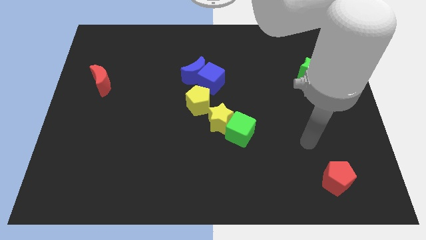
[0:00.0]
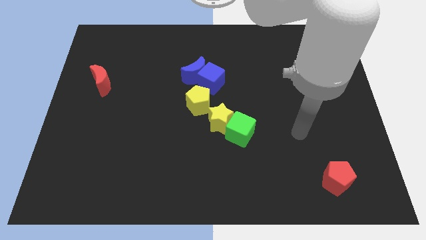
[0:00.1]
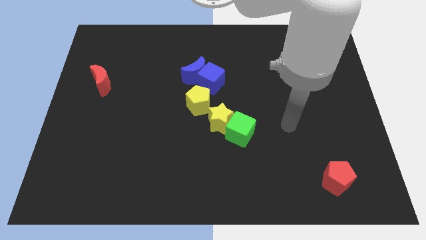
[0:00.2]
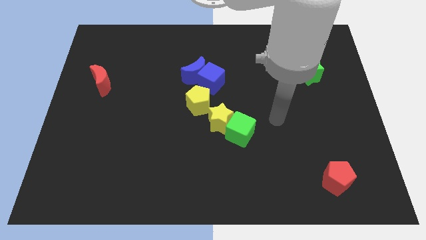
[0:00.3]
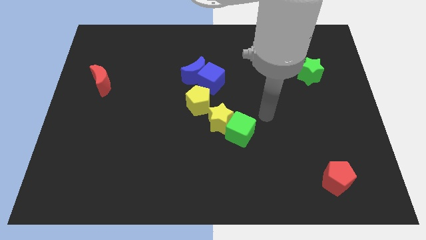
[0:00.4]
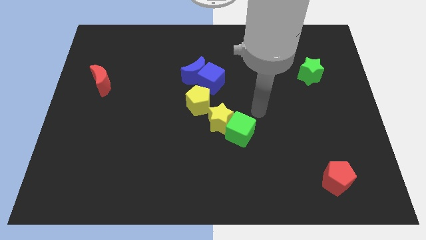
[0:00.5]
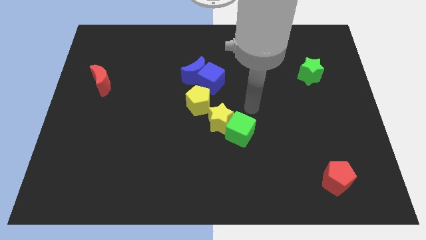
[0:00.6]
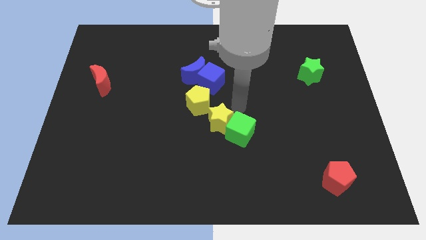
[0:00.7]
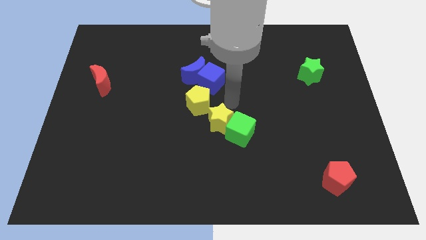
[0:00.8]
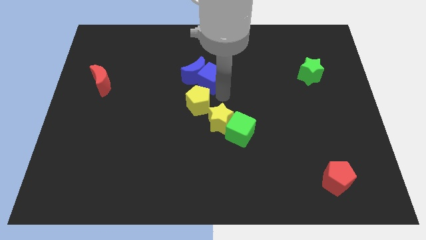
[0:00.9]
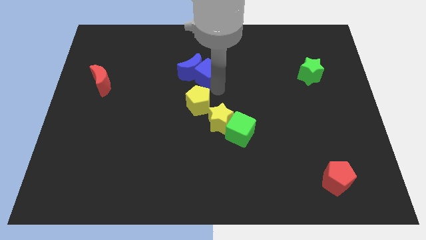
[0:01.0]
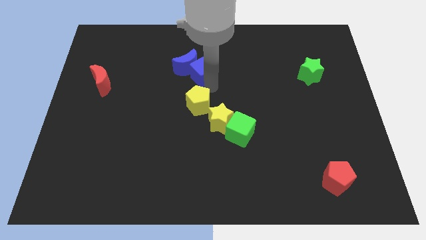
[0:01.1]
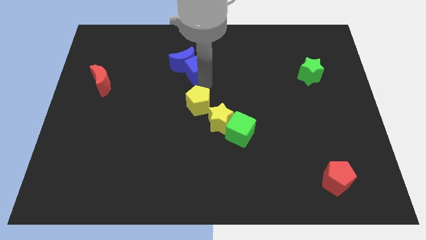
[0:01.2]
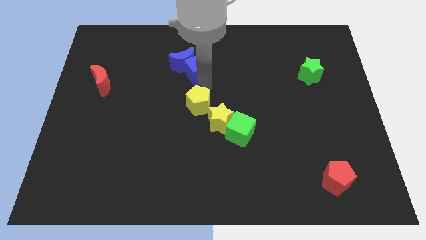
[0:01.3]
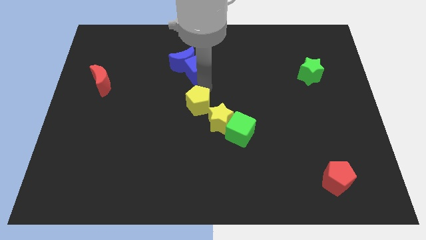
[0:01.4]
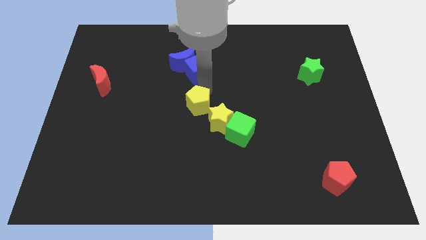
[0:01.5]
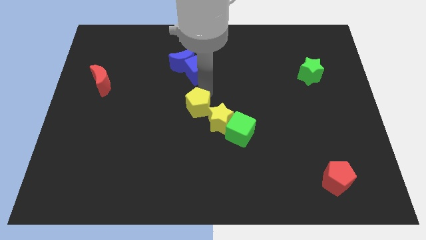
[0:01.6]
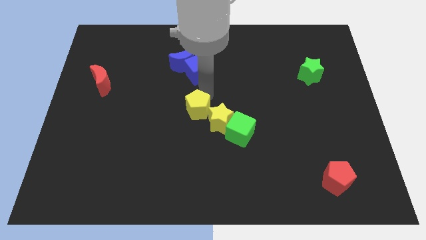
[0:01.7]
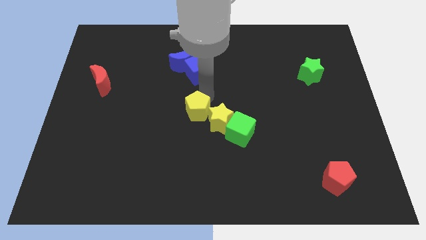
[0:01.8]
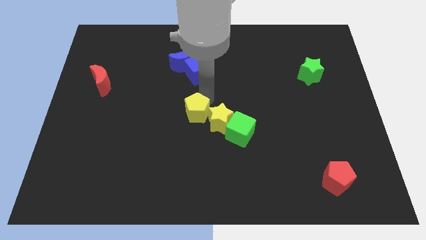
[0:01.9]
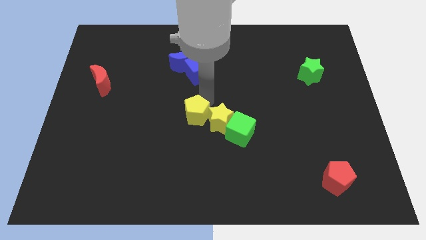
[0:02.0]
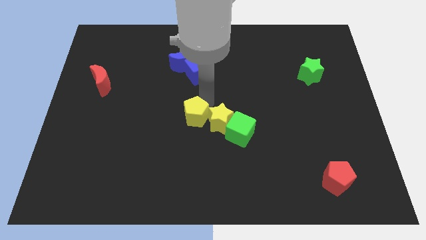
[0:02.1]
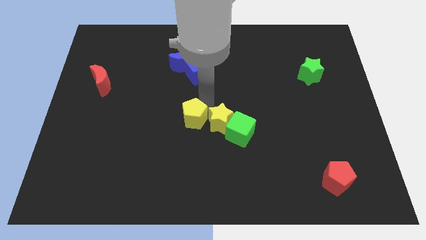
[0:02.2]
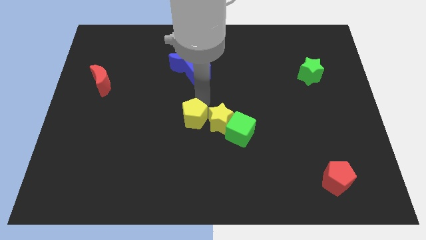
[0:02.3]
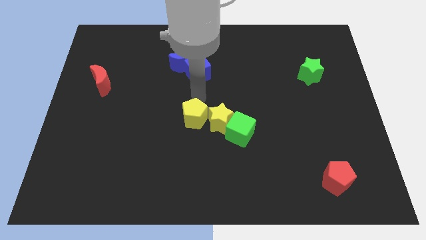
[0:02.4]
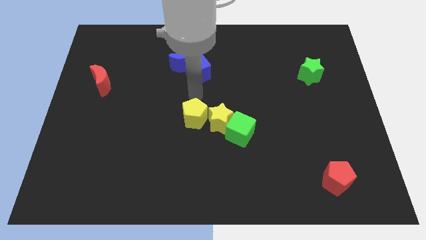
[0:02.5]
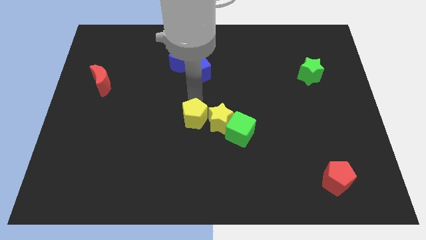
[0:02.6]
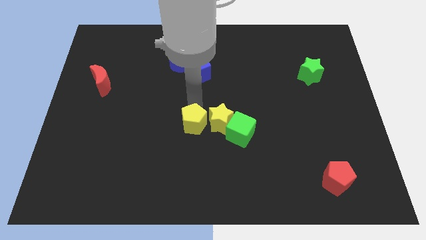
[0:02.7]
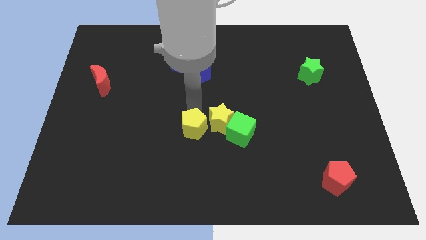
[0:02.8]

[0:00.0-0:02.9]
move the yellow pentagon down a little bit

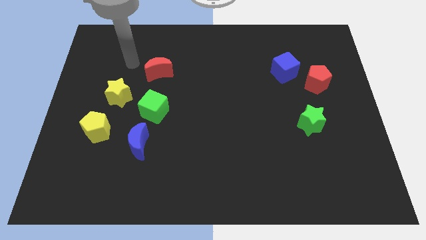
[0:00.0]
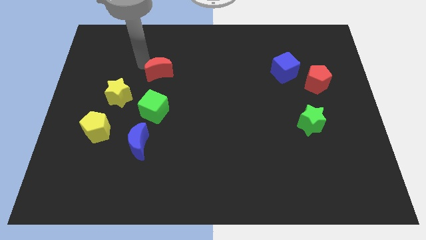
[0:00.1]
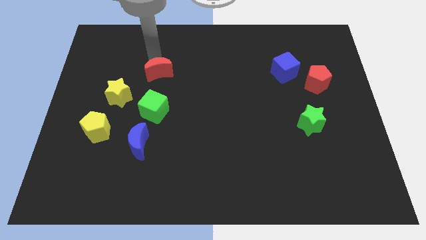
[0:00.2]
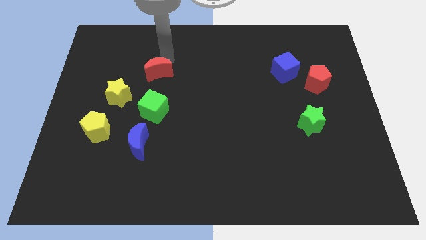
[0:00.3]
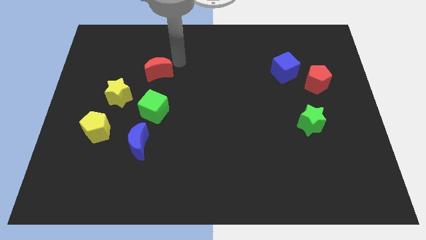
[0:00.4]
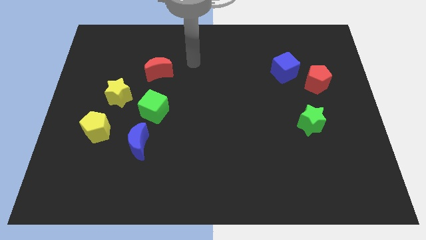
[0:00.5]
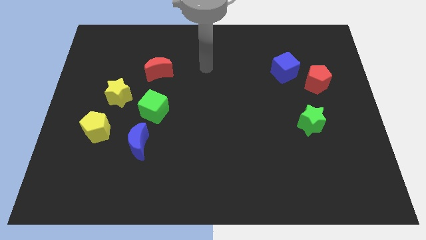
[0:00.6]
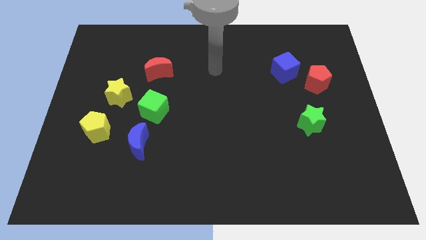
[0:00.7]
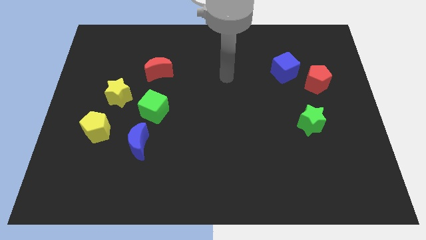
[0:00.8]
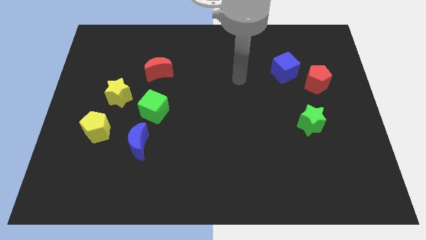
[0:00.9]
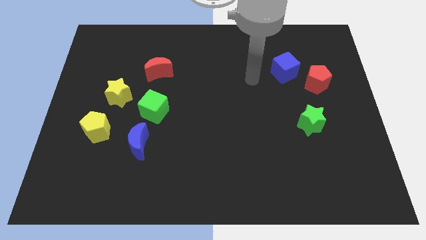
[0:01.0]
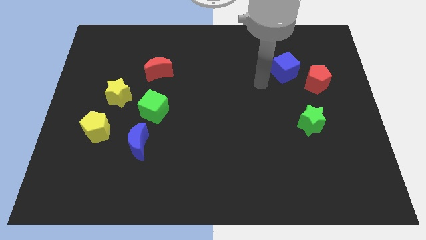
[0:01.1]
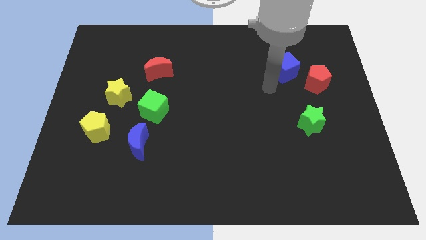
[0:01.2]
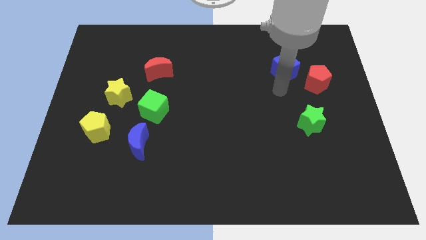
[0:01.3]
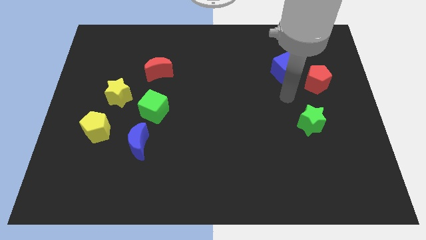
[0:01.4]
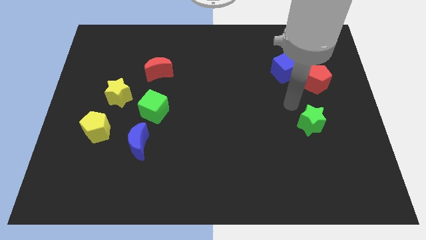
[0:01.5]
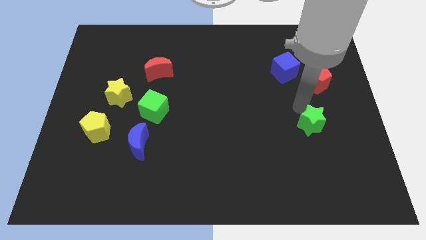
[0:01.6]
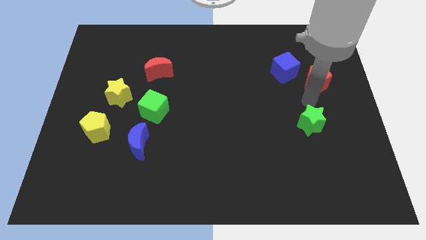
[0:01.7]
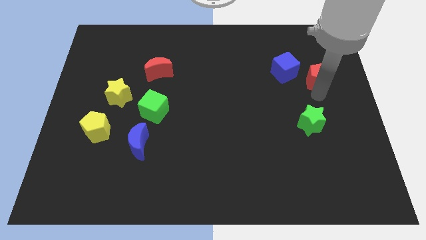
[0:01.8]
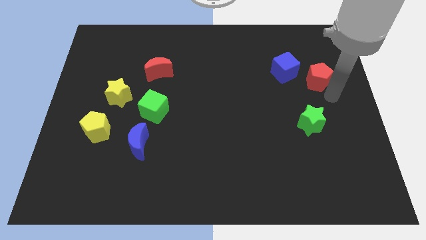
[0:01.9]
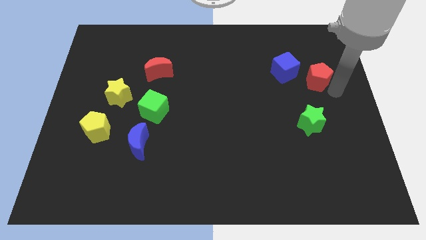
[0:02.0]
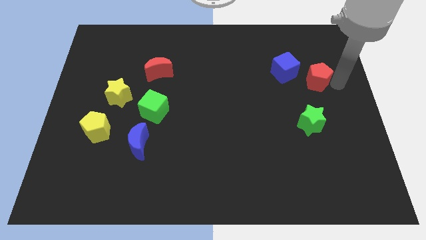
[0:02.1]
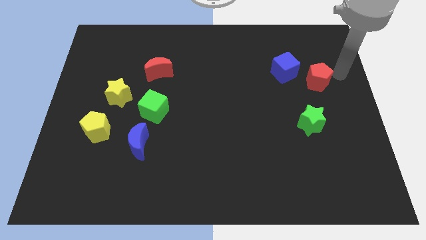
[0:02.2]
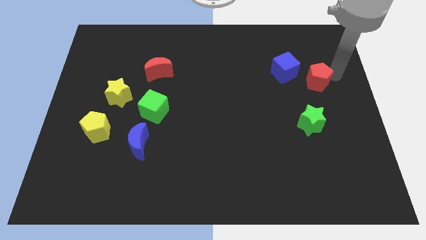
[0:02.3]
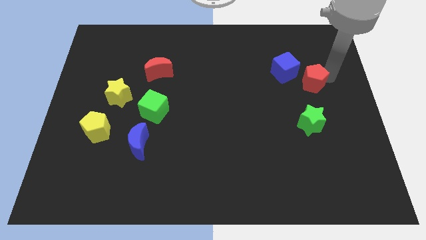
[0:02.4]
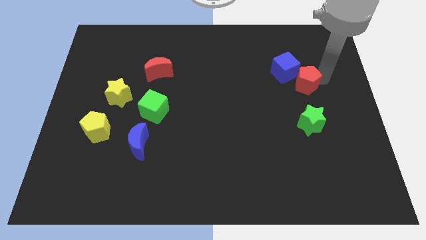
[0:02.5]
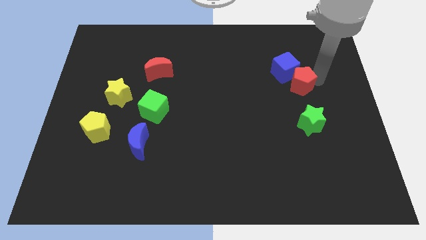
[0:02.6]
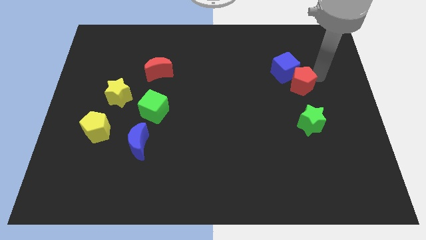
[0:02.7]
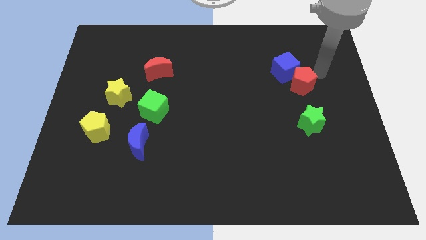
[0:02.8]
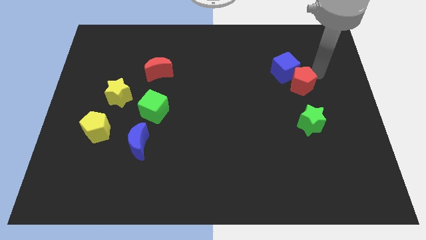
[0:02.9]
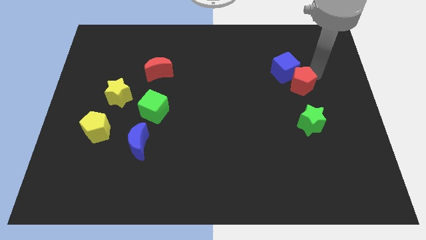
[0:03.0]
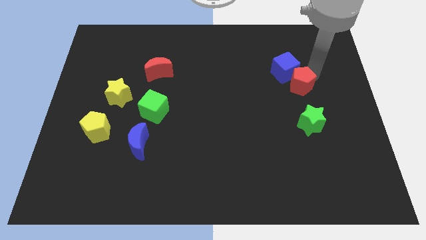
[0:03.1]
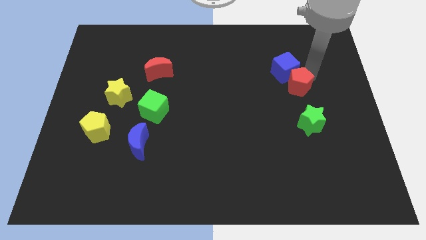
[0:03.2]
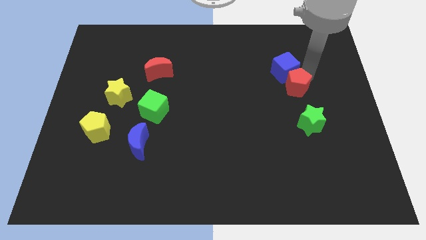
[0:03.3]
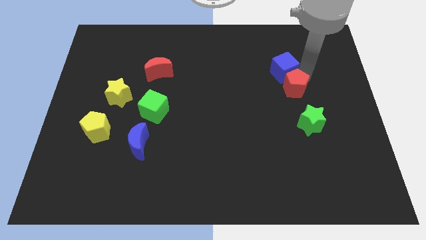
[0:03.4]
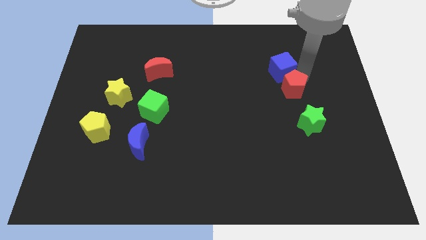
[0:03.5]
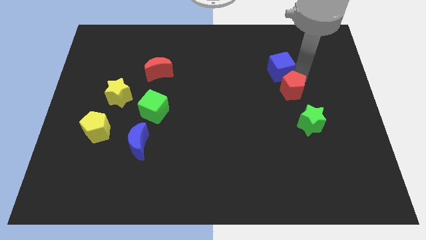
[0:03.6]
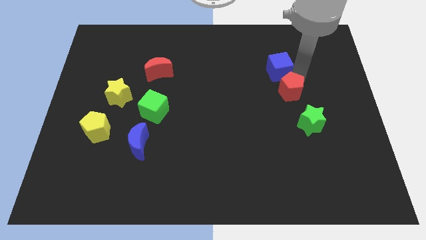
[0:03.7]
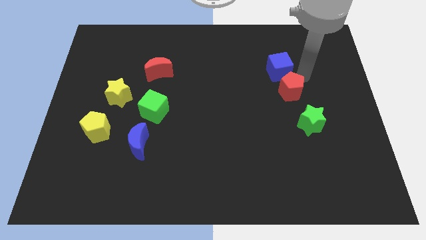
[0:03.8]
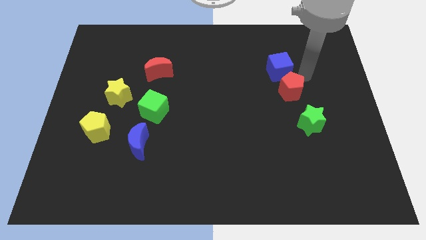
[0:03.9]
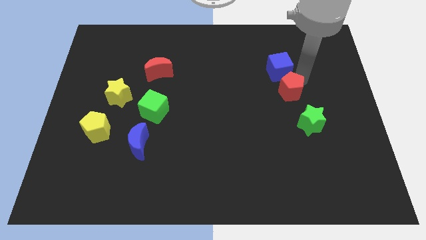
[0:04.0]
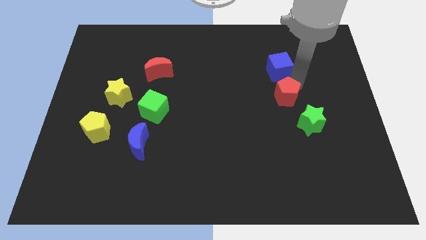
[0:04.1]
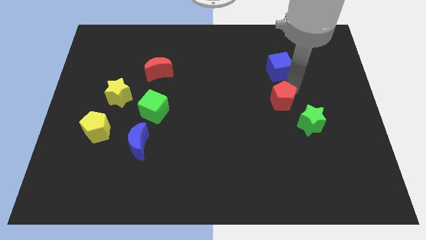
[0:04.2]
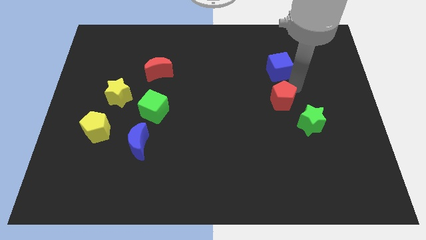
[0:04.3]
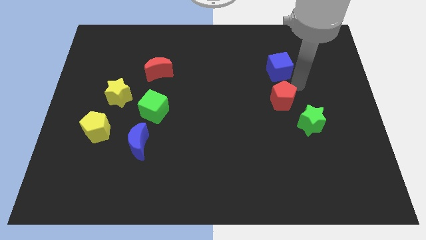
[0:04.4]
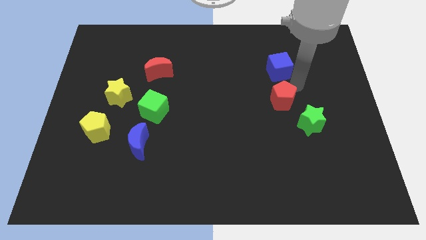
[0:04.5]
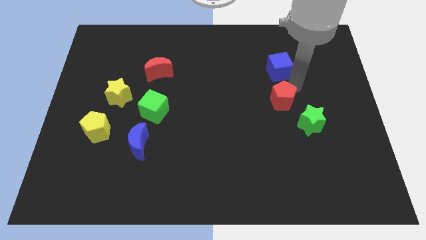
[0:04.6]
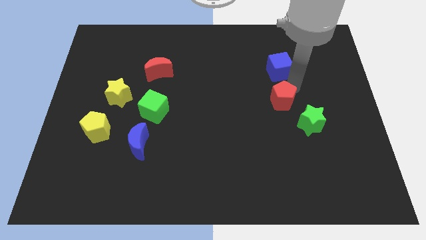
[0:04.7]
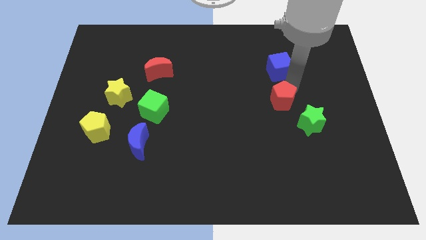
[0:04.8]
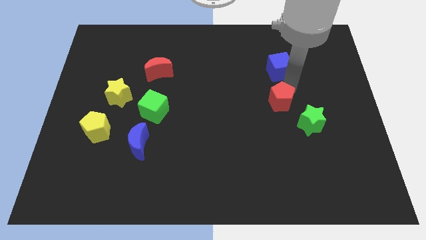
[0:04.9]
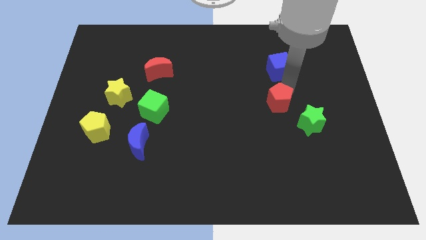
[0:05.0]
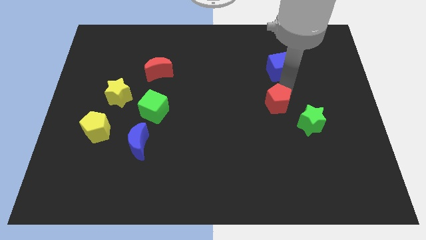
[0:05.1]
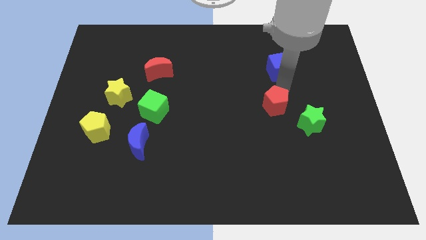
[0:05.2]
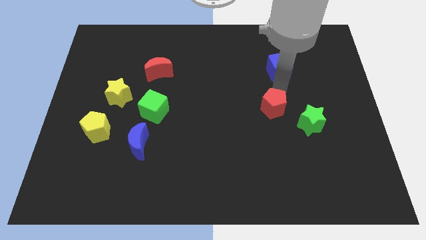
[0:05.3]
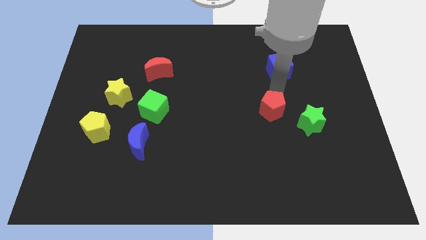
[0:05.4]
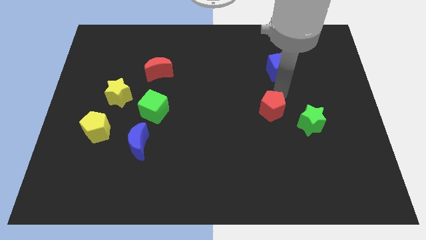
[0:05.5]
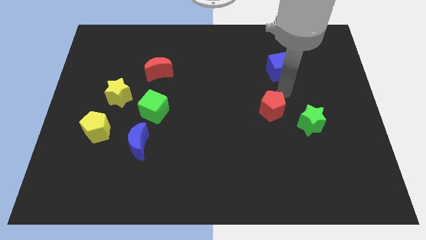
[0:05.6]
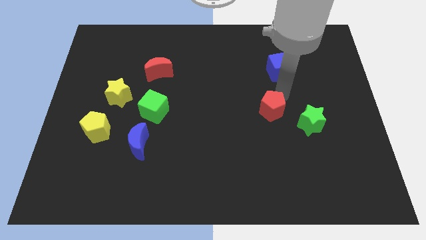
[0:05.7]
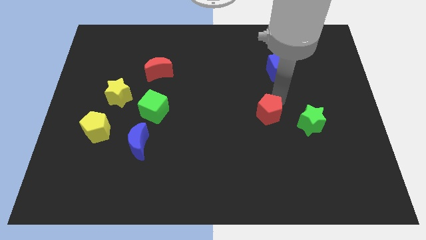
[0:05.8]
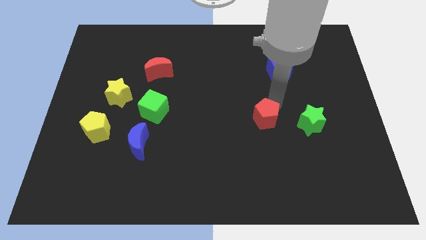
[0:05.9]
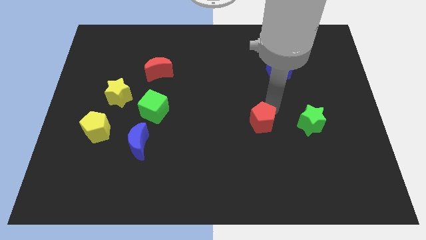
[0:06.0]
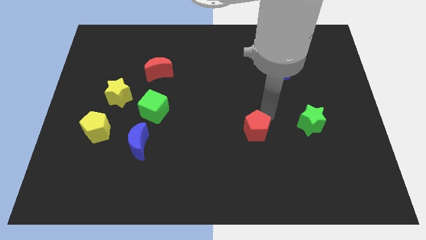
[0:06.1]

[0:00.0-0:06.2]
move the red pentagon downwards and left diagonally
